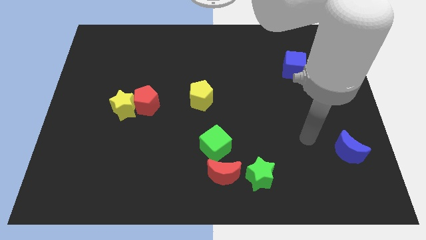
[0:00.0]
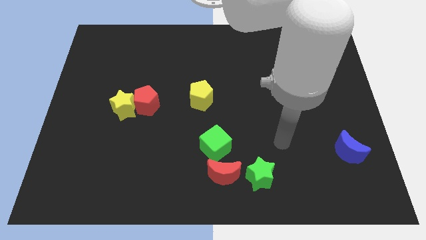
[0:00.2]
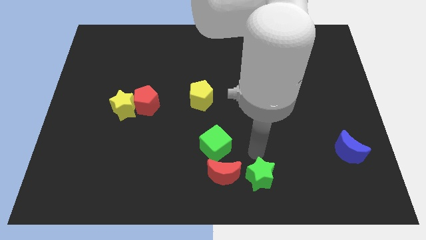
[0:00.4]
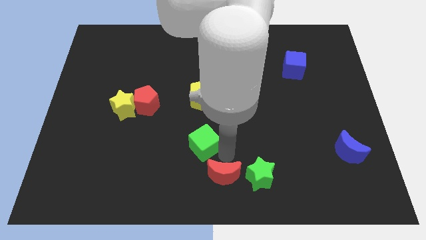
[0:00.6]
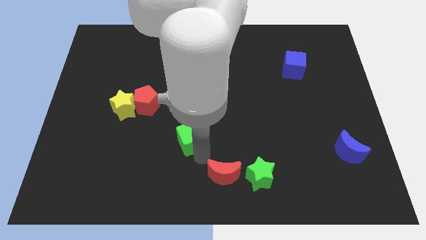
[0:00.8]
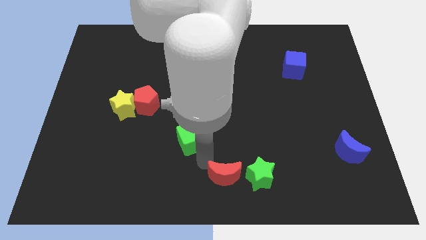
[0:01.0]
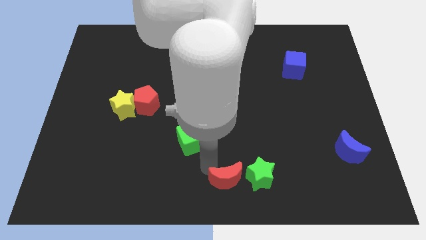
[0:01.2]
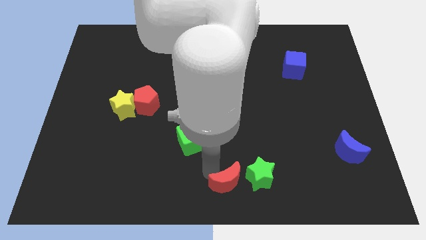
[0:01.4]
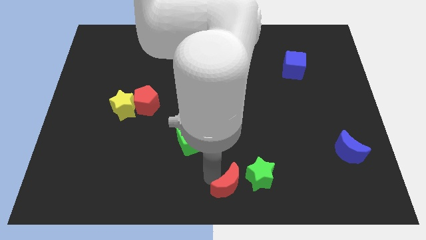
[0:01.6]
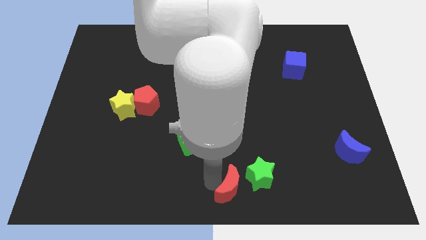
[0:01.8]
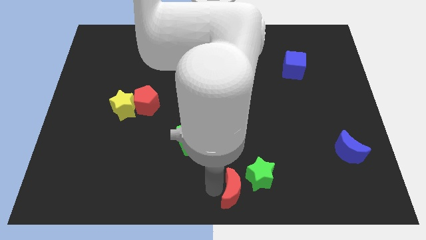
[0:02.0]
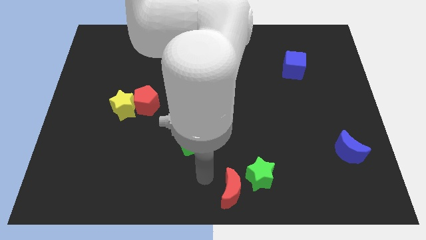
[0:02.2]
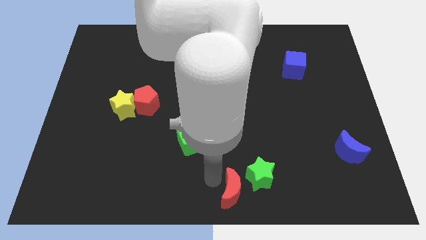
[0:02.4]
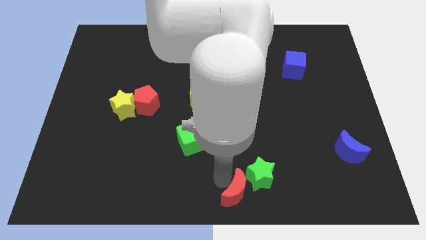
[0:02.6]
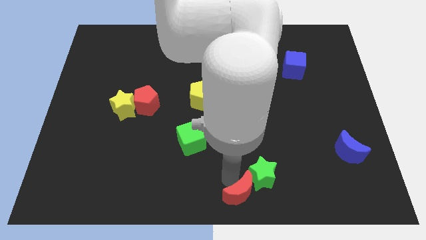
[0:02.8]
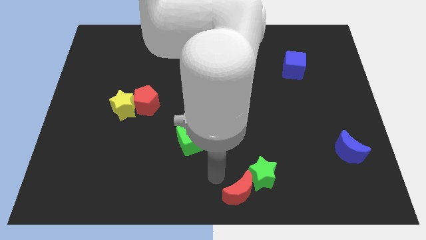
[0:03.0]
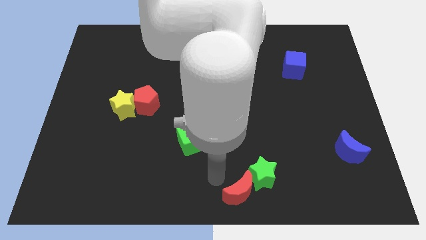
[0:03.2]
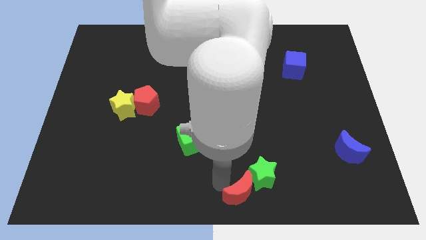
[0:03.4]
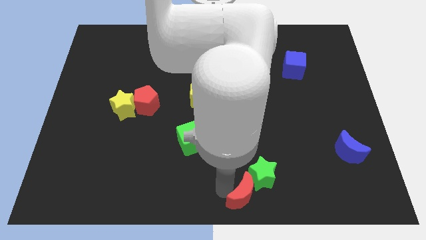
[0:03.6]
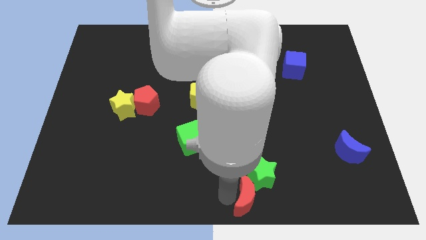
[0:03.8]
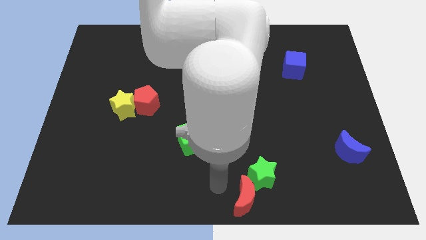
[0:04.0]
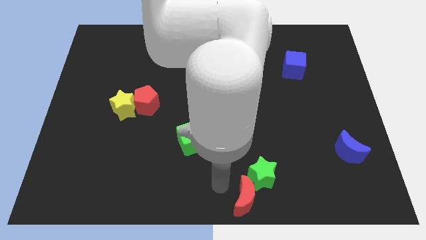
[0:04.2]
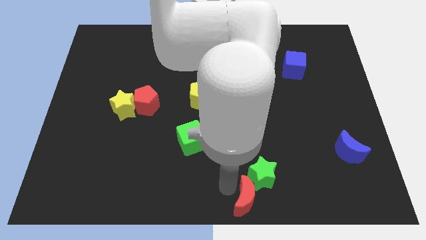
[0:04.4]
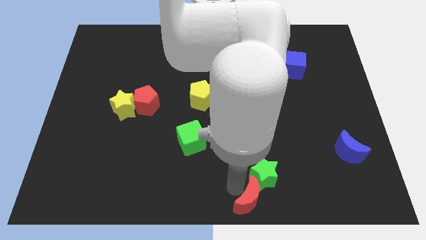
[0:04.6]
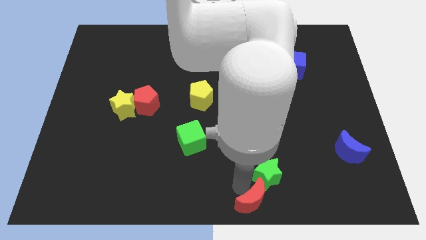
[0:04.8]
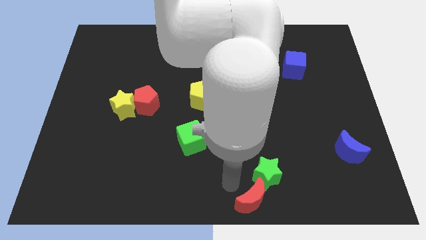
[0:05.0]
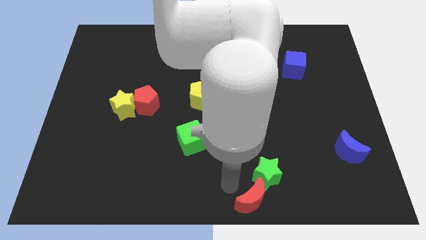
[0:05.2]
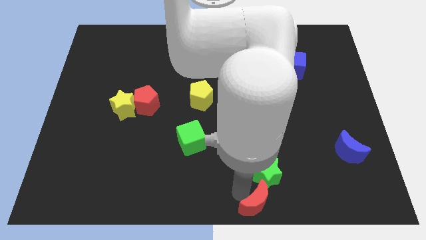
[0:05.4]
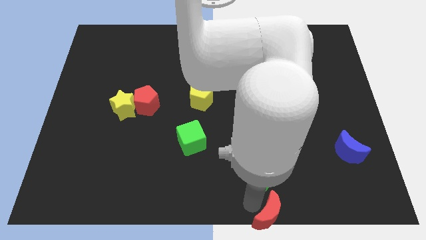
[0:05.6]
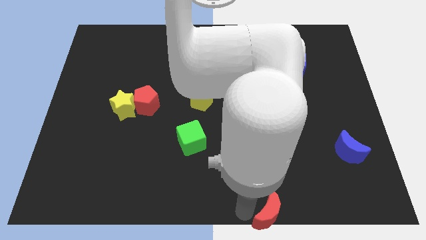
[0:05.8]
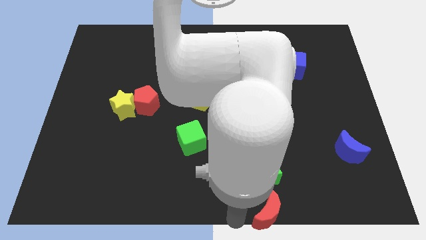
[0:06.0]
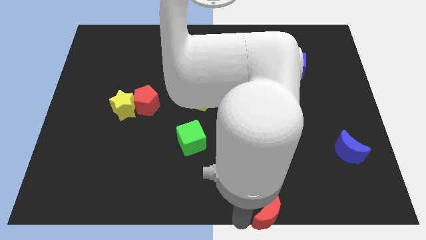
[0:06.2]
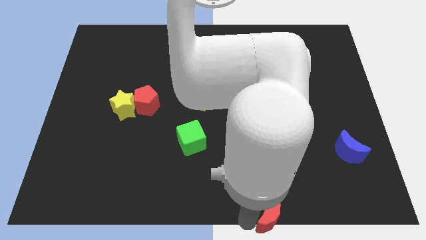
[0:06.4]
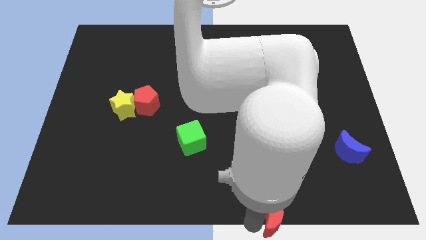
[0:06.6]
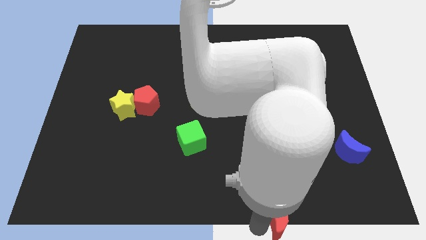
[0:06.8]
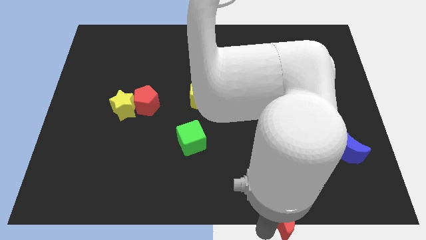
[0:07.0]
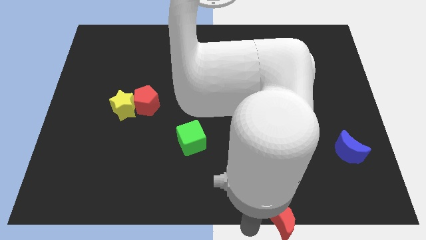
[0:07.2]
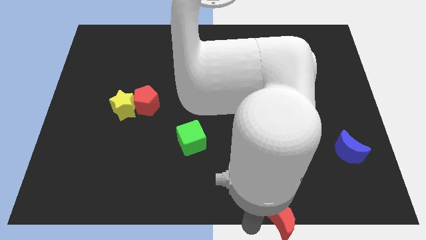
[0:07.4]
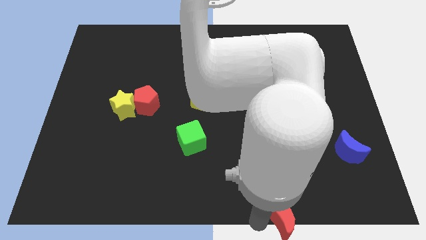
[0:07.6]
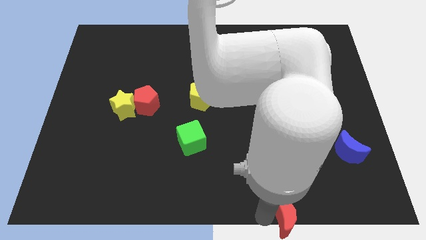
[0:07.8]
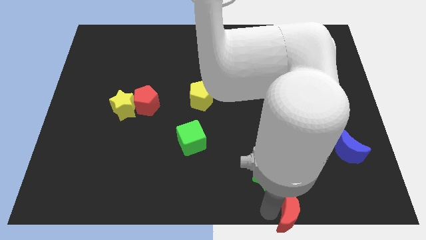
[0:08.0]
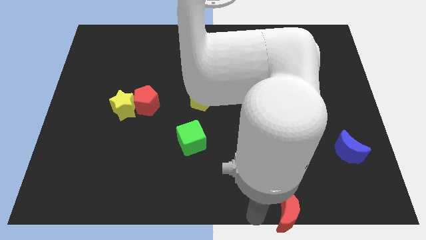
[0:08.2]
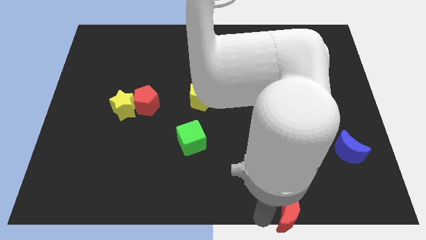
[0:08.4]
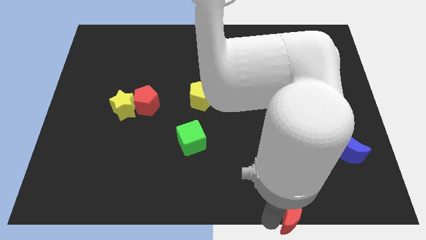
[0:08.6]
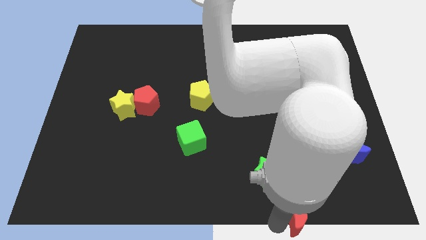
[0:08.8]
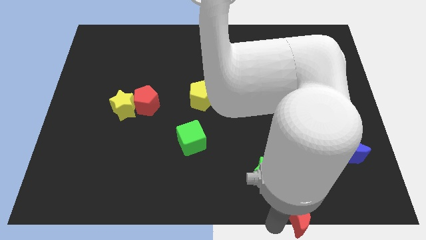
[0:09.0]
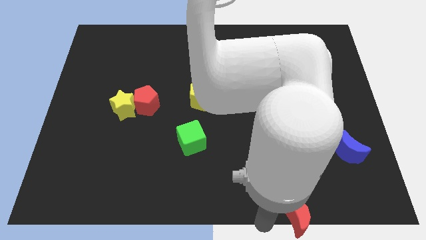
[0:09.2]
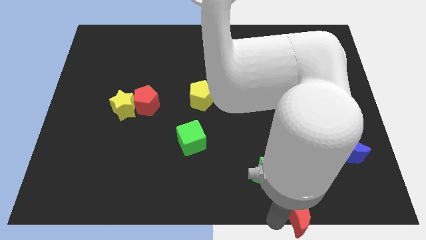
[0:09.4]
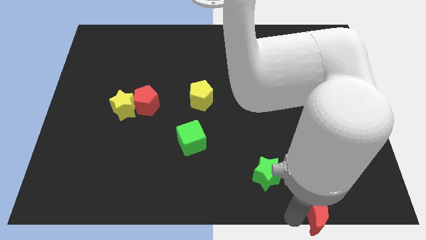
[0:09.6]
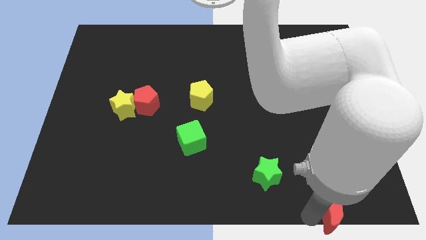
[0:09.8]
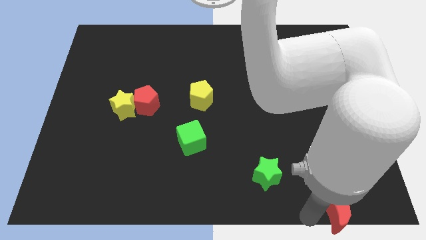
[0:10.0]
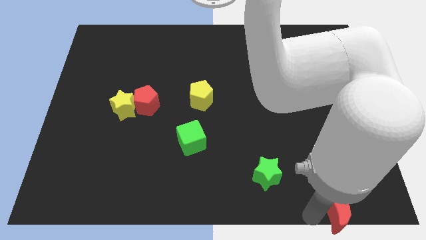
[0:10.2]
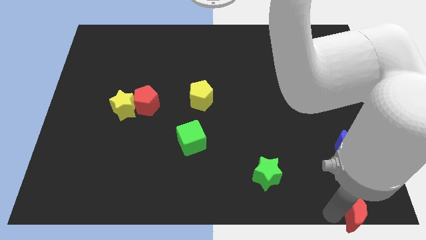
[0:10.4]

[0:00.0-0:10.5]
put the red moon to the lower right corner

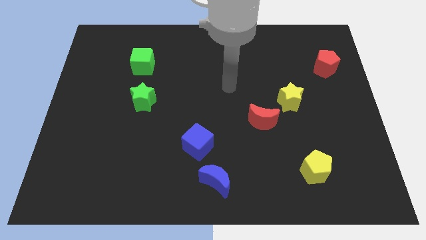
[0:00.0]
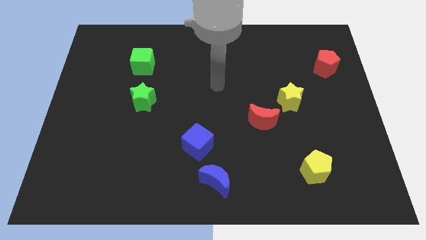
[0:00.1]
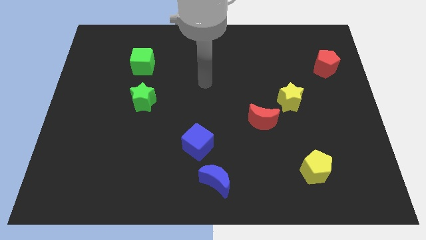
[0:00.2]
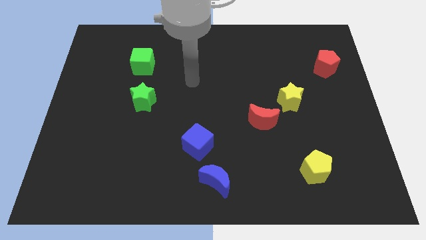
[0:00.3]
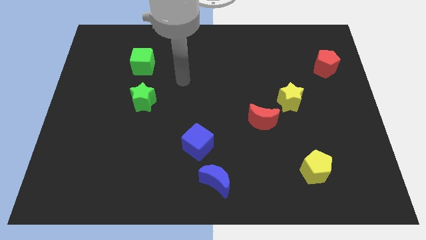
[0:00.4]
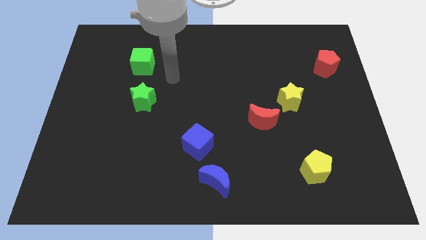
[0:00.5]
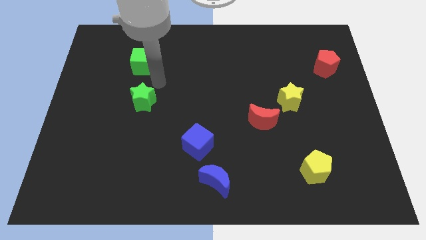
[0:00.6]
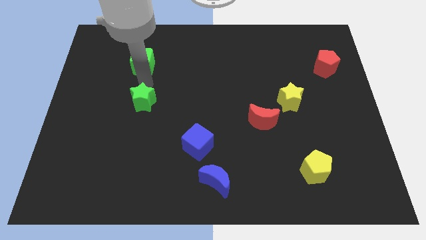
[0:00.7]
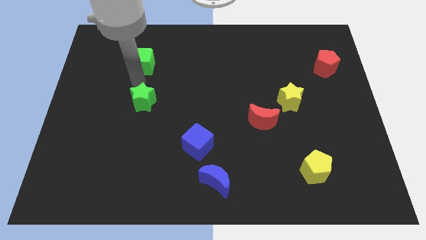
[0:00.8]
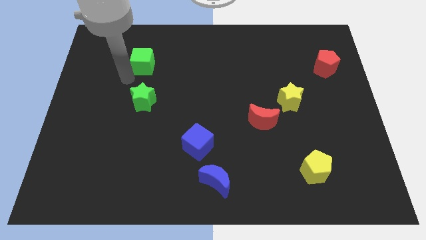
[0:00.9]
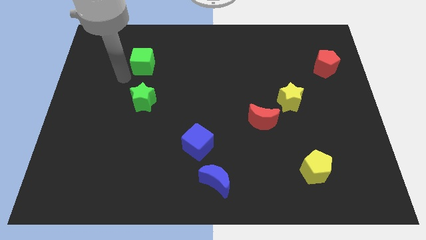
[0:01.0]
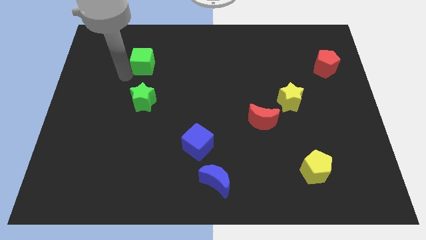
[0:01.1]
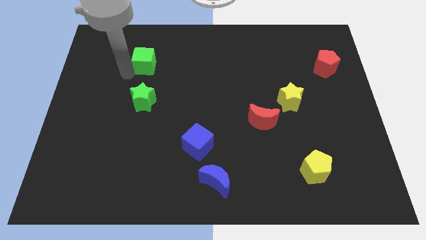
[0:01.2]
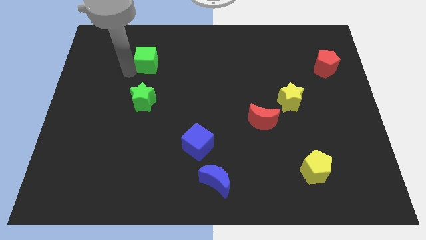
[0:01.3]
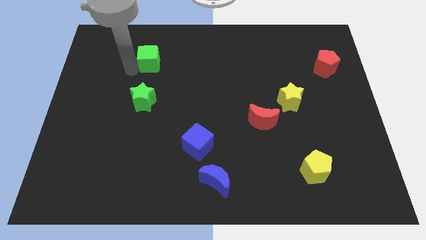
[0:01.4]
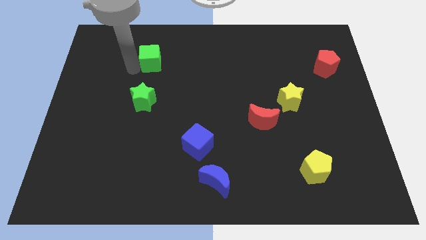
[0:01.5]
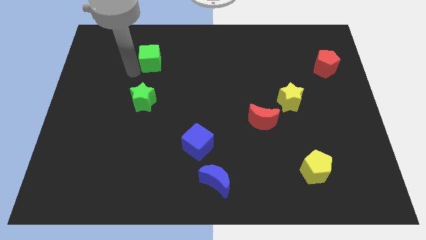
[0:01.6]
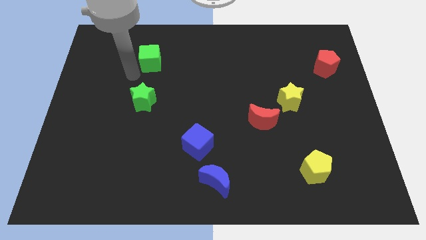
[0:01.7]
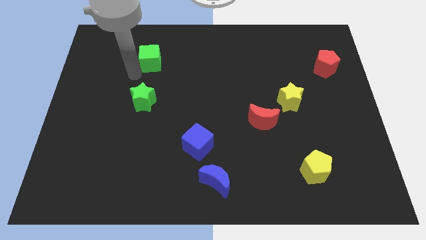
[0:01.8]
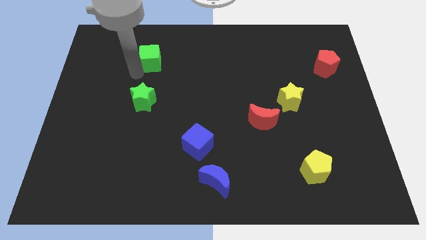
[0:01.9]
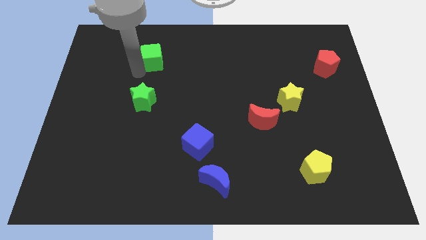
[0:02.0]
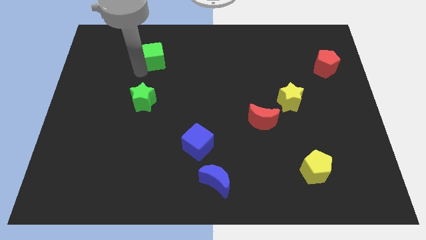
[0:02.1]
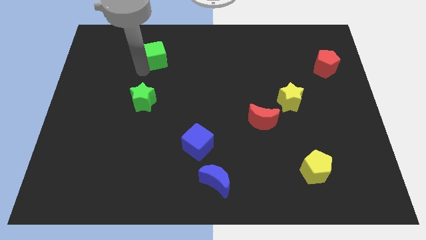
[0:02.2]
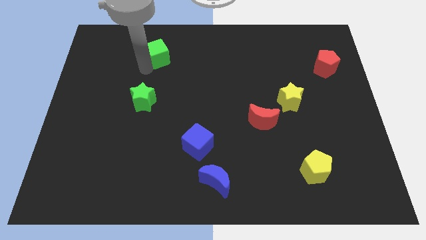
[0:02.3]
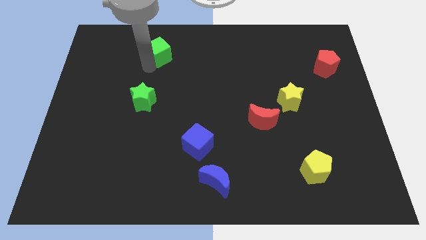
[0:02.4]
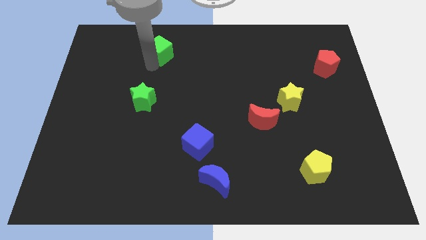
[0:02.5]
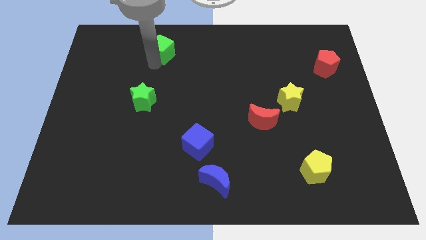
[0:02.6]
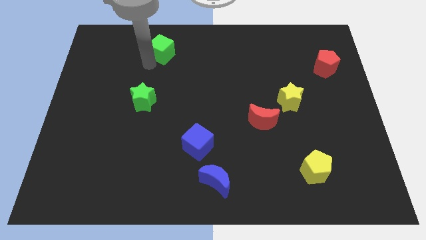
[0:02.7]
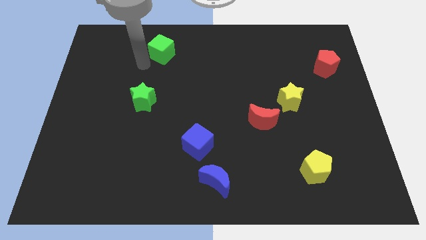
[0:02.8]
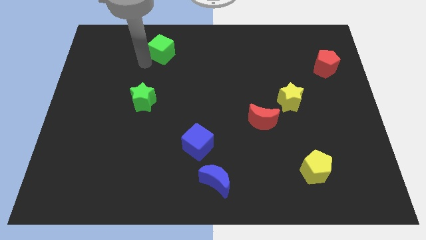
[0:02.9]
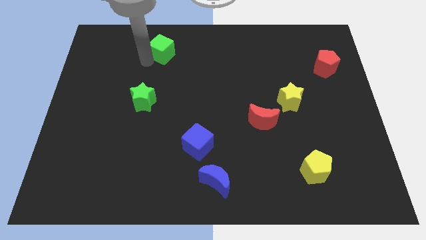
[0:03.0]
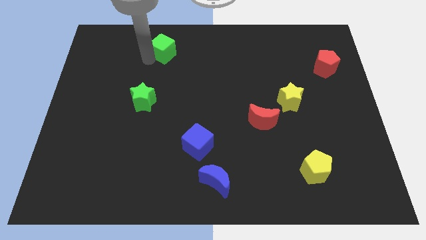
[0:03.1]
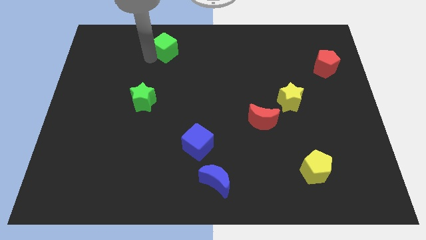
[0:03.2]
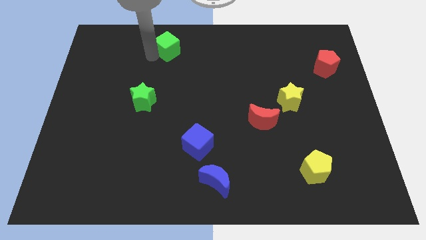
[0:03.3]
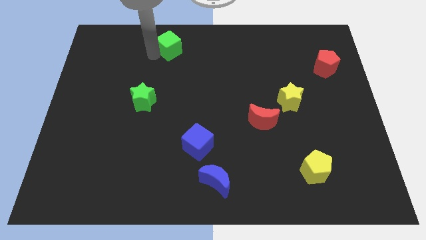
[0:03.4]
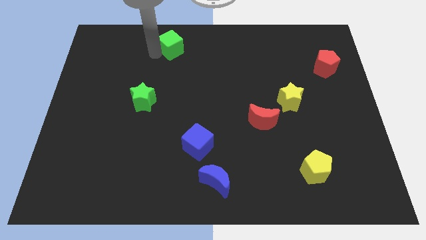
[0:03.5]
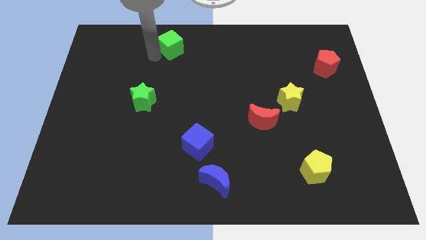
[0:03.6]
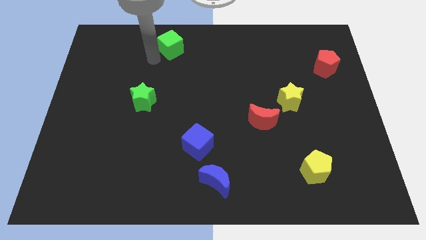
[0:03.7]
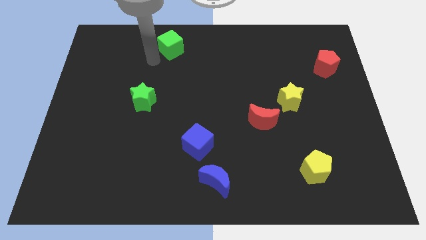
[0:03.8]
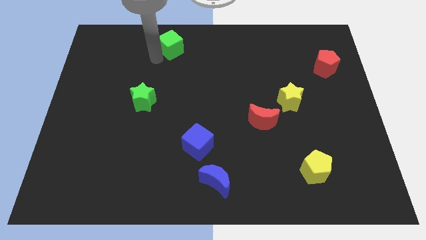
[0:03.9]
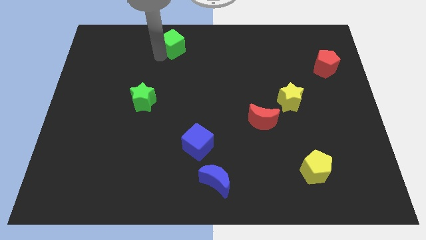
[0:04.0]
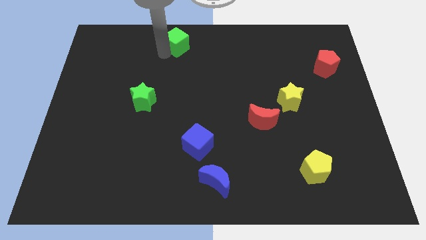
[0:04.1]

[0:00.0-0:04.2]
slide the green cube to the towards your base
